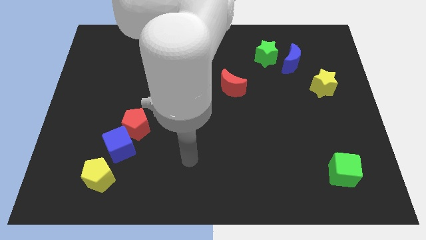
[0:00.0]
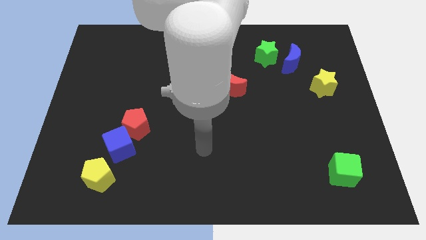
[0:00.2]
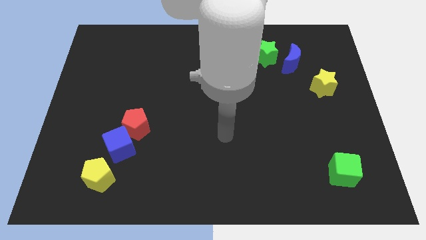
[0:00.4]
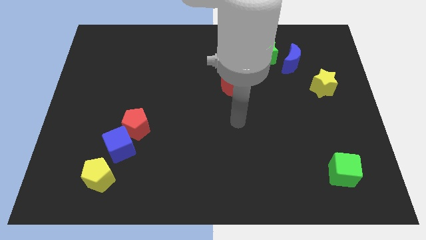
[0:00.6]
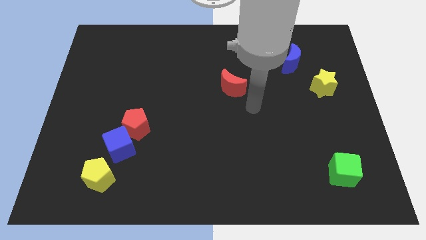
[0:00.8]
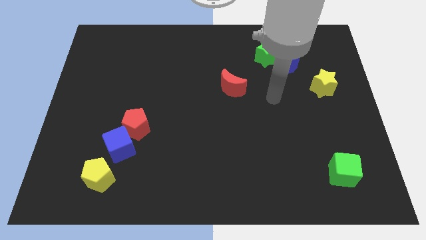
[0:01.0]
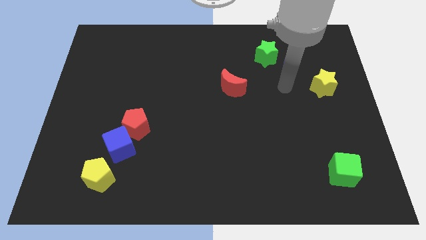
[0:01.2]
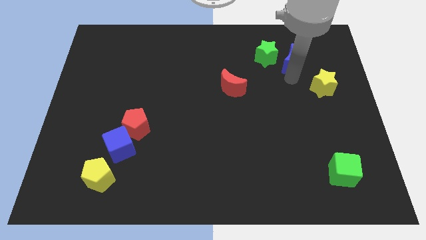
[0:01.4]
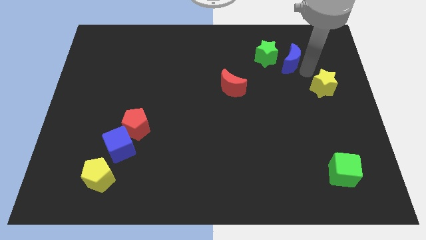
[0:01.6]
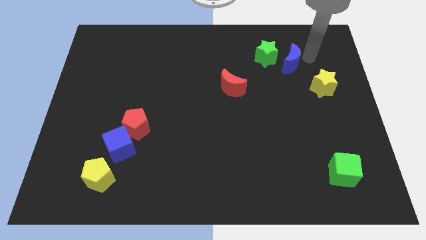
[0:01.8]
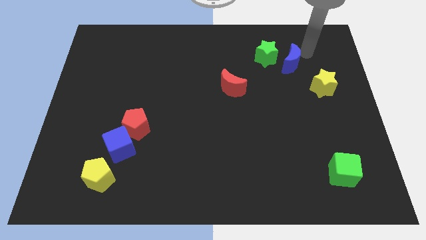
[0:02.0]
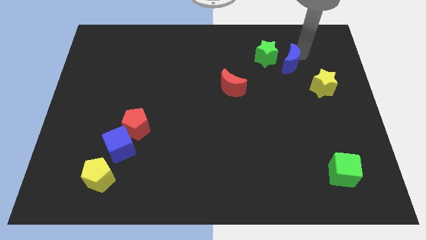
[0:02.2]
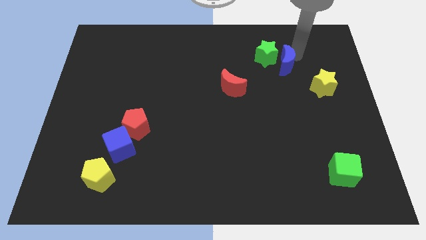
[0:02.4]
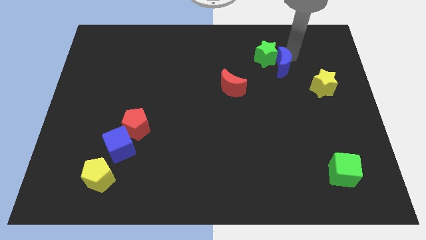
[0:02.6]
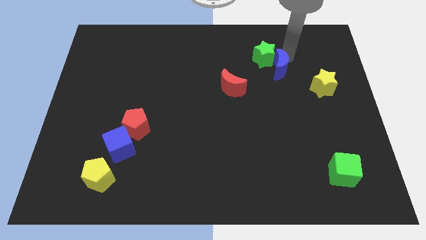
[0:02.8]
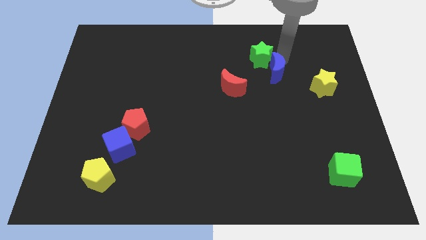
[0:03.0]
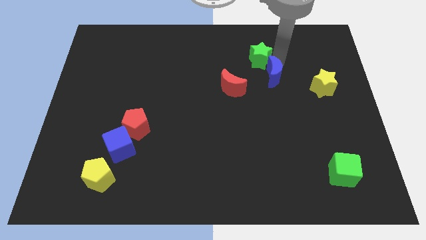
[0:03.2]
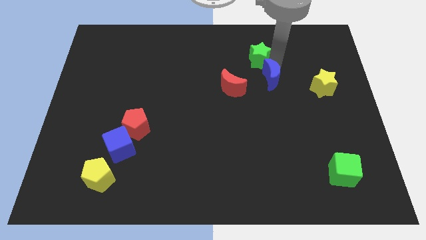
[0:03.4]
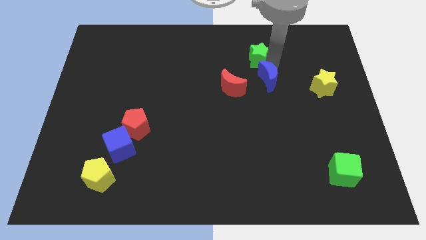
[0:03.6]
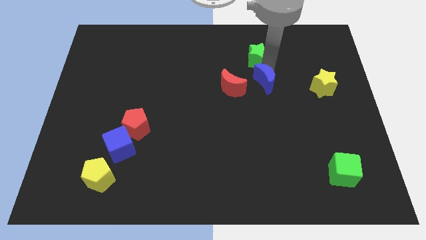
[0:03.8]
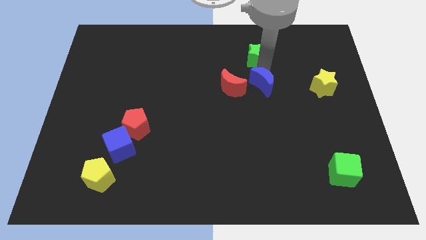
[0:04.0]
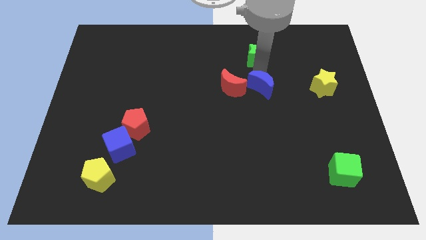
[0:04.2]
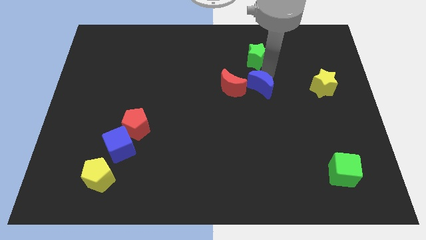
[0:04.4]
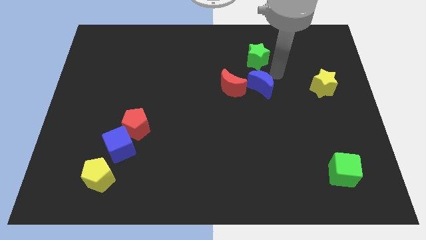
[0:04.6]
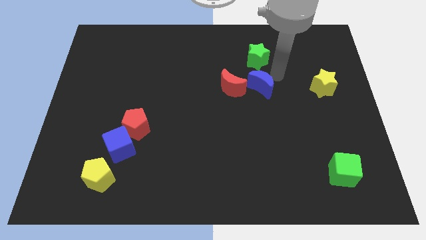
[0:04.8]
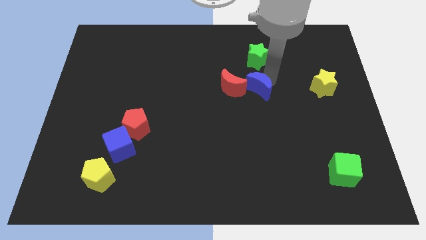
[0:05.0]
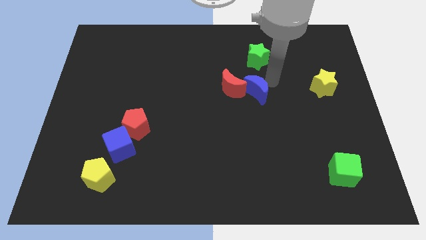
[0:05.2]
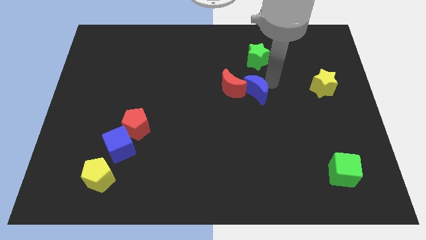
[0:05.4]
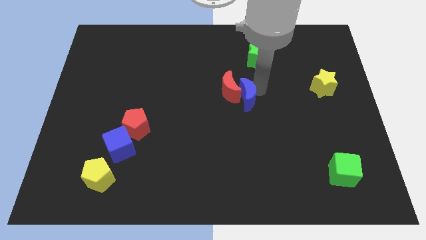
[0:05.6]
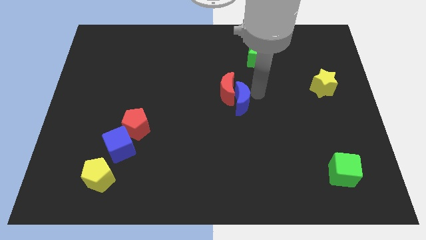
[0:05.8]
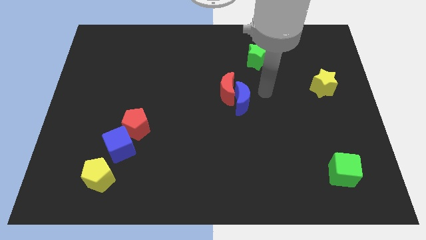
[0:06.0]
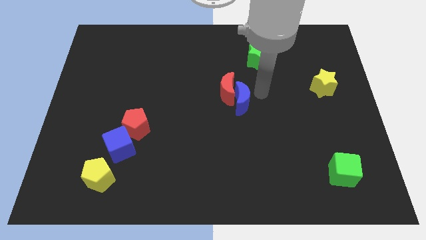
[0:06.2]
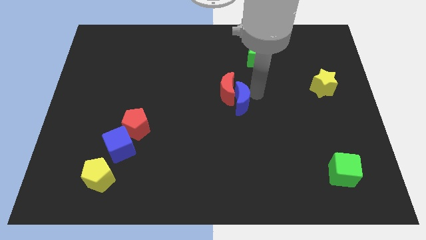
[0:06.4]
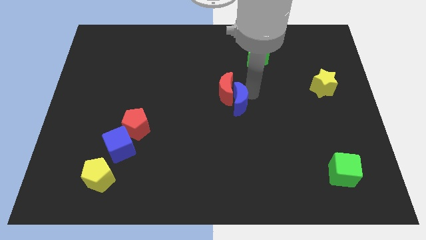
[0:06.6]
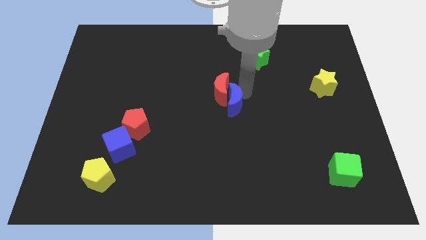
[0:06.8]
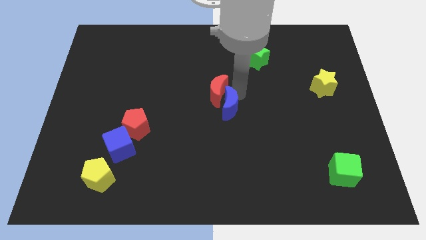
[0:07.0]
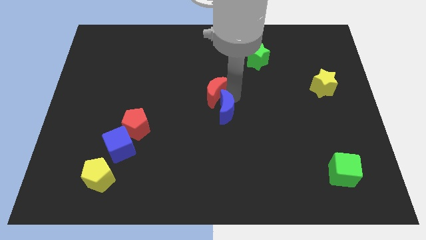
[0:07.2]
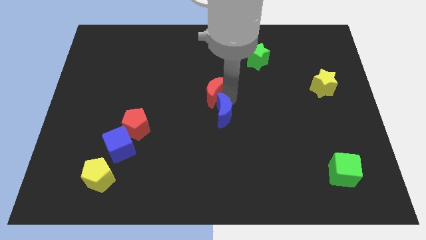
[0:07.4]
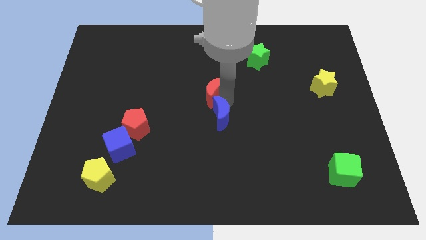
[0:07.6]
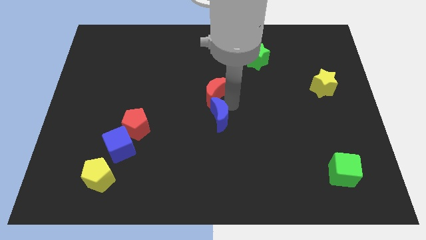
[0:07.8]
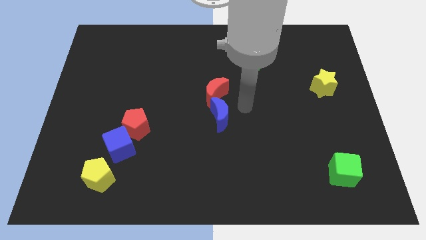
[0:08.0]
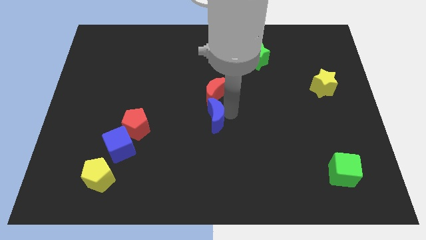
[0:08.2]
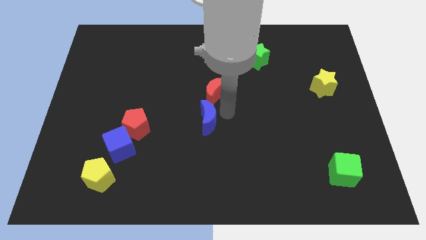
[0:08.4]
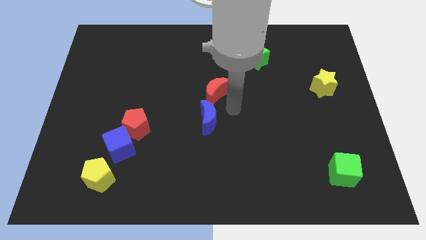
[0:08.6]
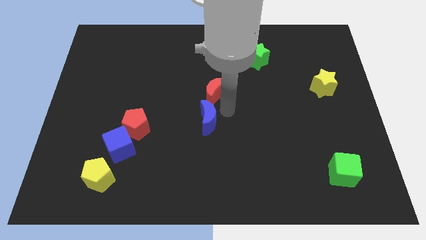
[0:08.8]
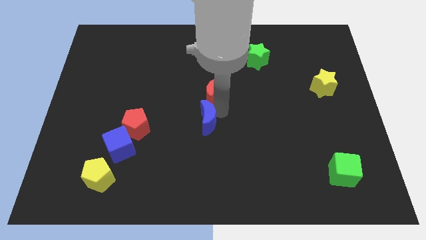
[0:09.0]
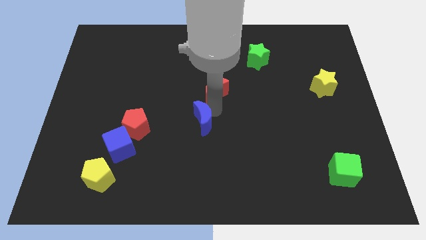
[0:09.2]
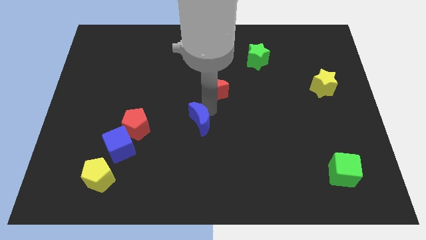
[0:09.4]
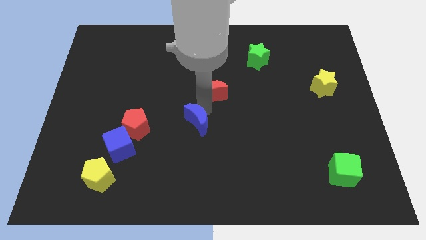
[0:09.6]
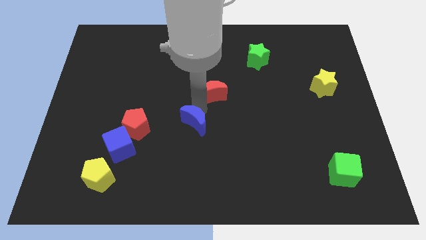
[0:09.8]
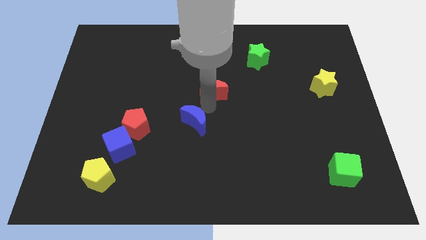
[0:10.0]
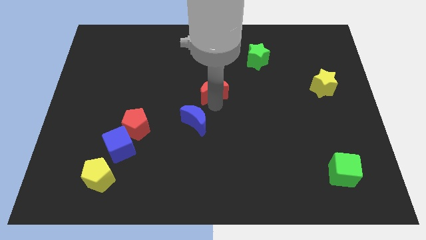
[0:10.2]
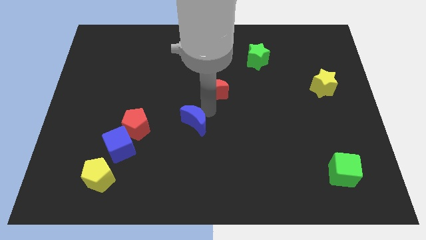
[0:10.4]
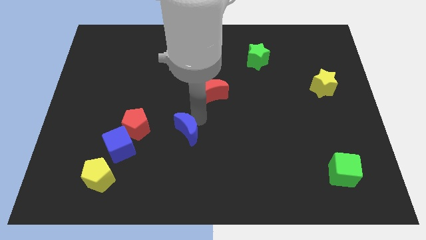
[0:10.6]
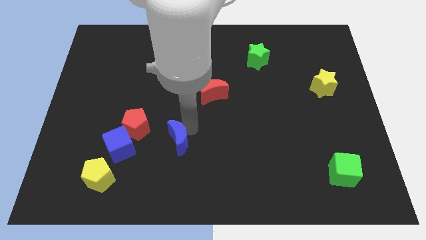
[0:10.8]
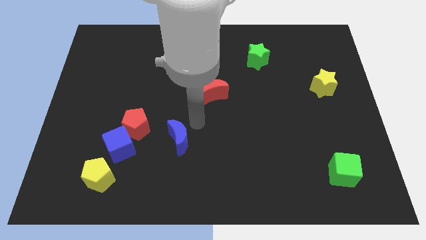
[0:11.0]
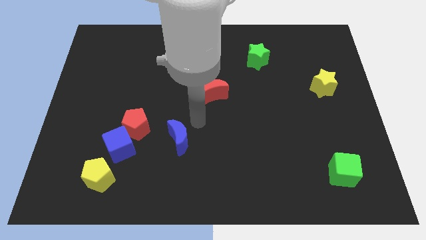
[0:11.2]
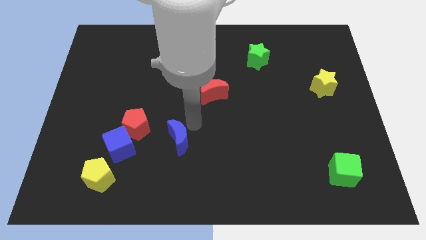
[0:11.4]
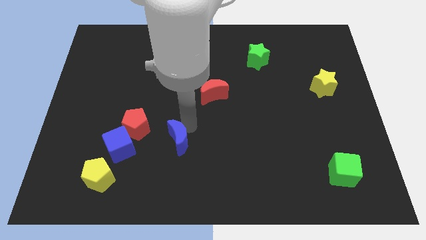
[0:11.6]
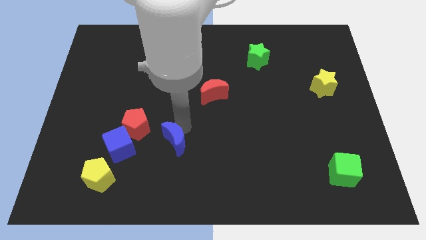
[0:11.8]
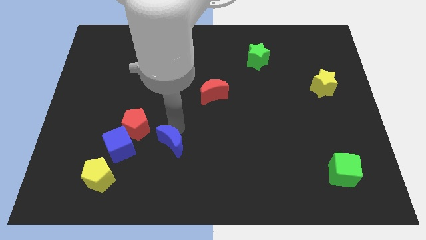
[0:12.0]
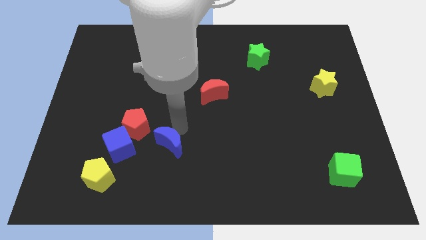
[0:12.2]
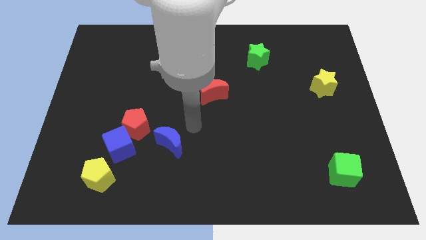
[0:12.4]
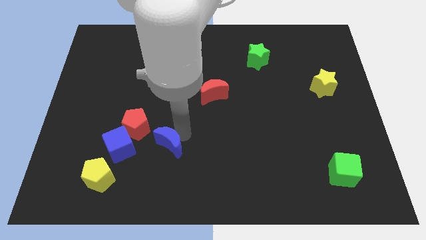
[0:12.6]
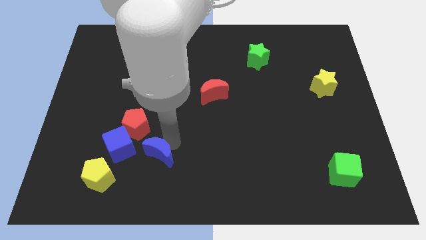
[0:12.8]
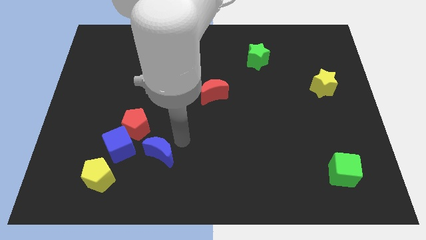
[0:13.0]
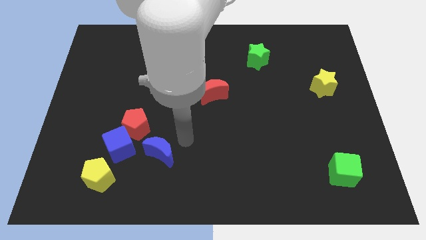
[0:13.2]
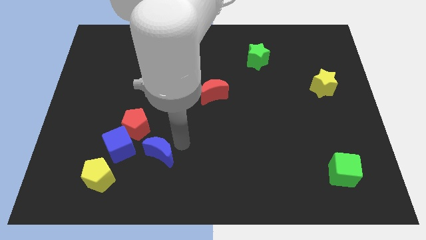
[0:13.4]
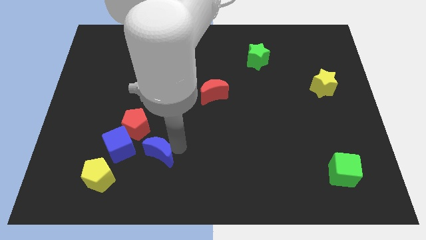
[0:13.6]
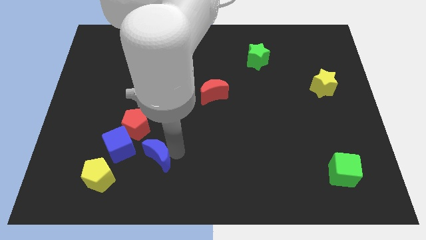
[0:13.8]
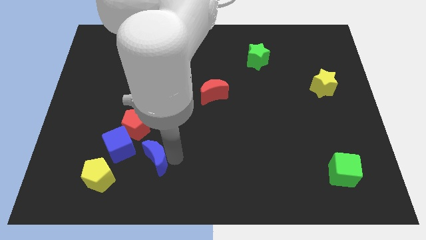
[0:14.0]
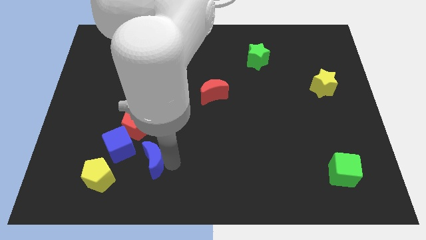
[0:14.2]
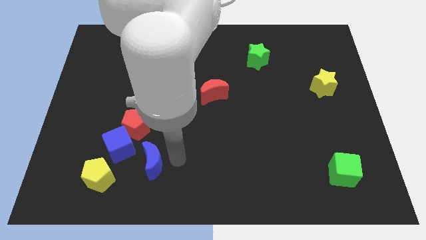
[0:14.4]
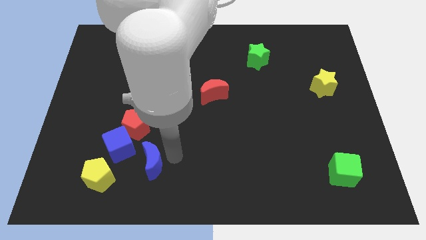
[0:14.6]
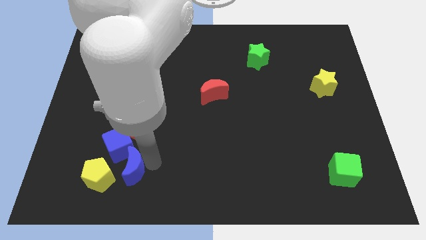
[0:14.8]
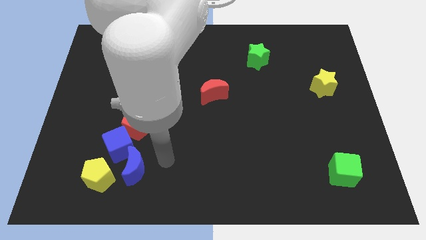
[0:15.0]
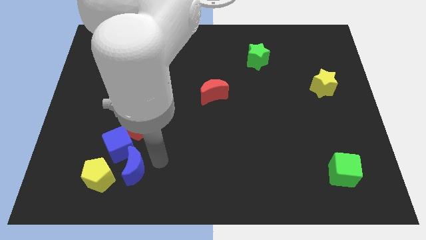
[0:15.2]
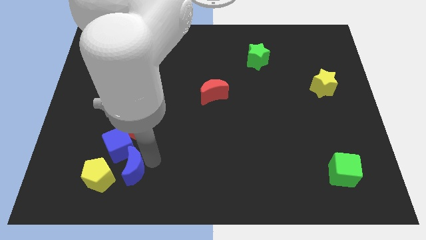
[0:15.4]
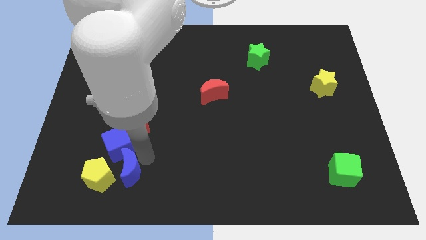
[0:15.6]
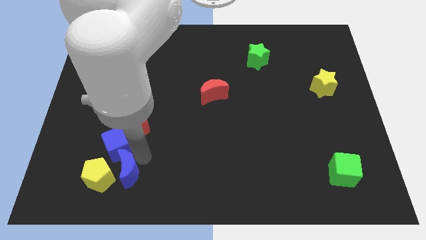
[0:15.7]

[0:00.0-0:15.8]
push the blue moon towards the yellow pentagon
